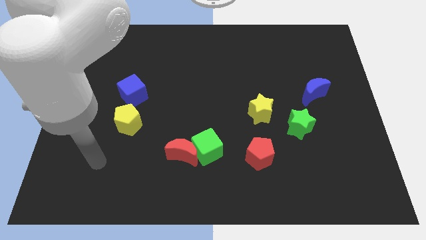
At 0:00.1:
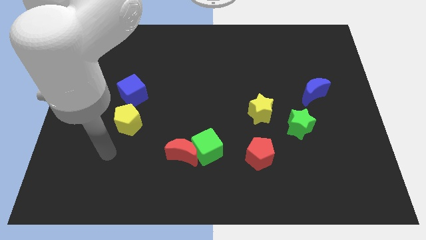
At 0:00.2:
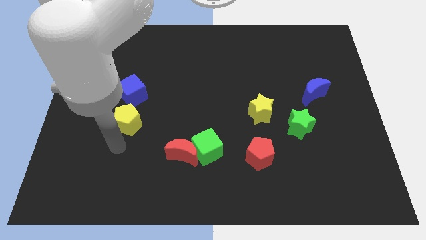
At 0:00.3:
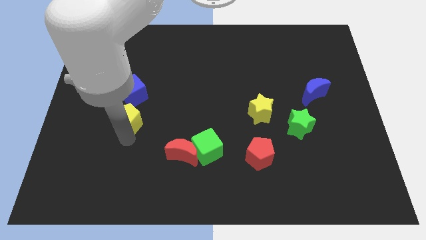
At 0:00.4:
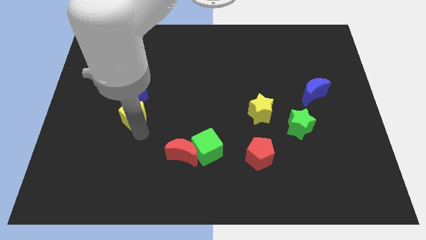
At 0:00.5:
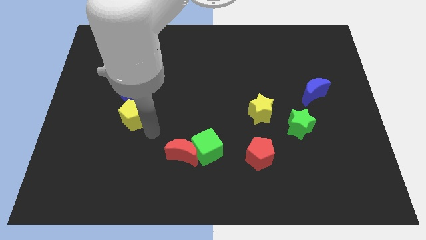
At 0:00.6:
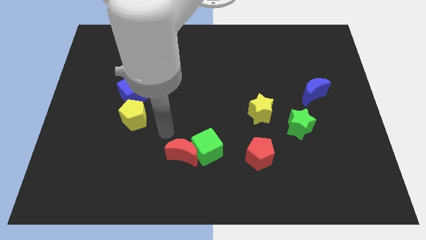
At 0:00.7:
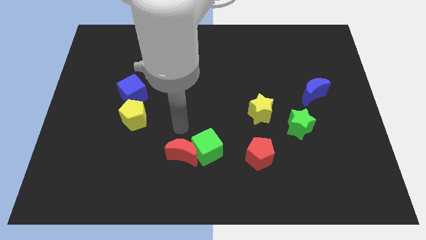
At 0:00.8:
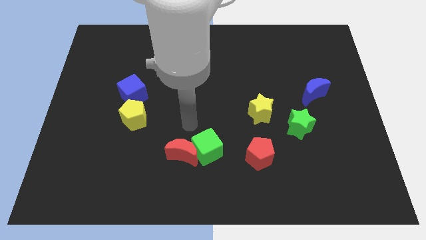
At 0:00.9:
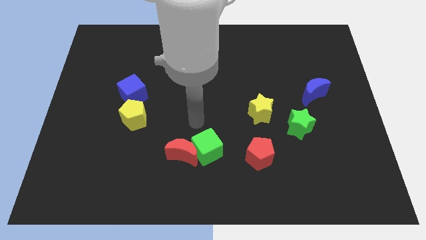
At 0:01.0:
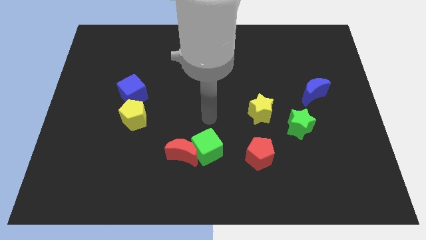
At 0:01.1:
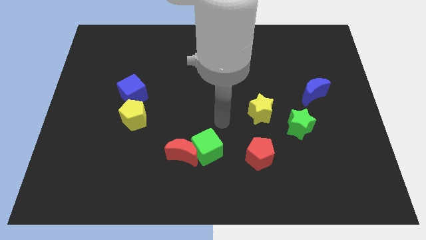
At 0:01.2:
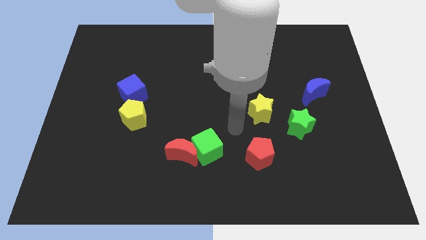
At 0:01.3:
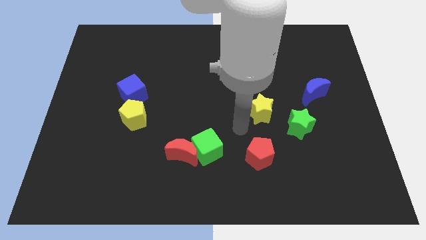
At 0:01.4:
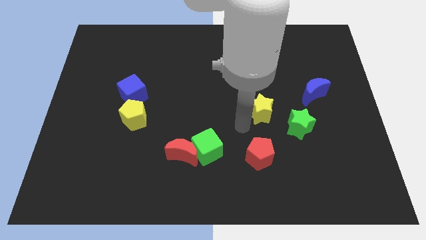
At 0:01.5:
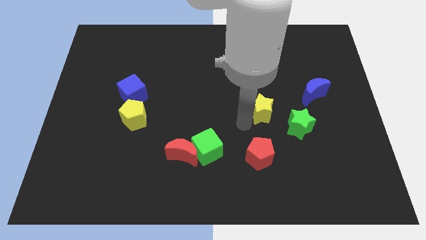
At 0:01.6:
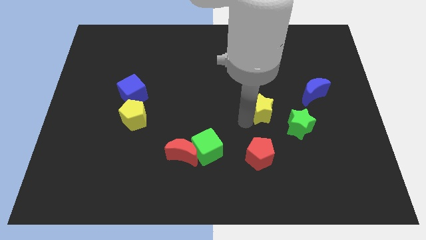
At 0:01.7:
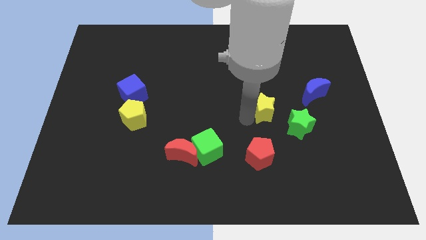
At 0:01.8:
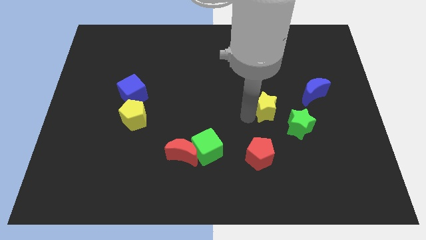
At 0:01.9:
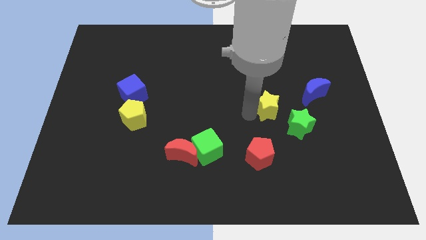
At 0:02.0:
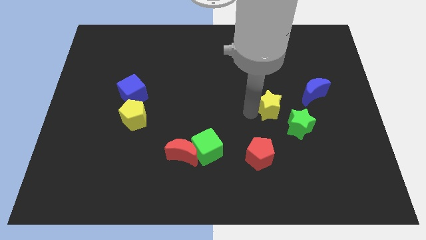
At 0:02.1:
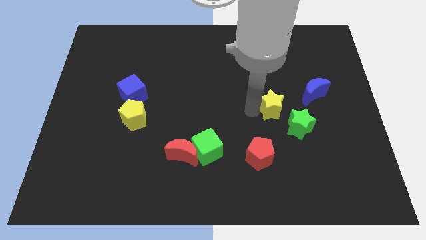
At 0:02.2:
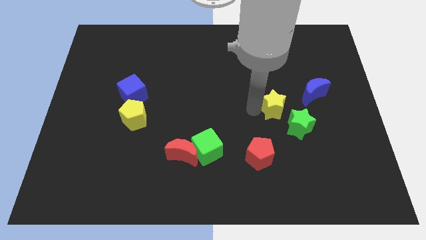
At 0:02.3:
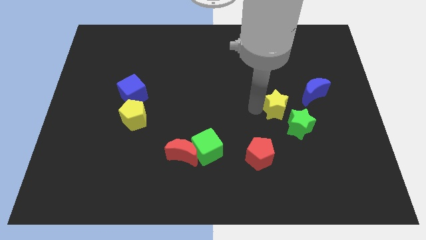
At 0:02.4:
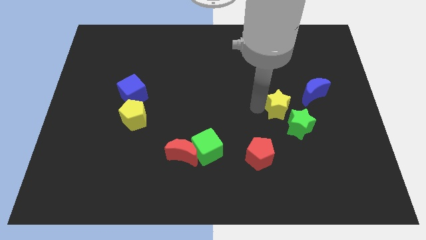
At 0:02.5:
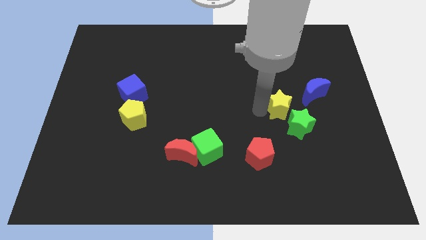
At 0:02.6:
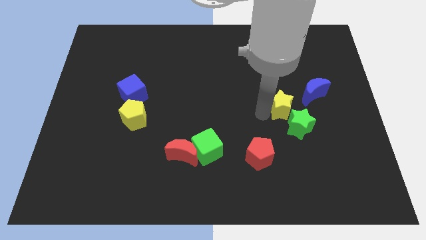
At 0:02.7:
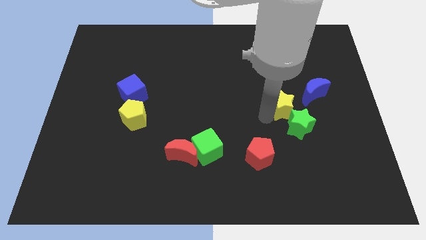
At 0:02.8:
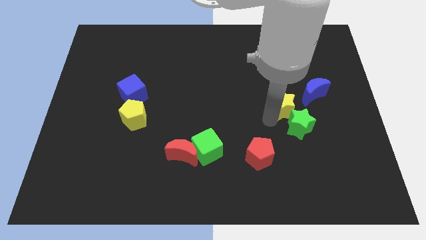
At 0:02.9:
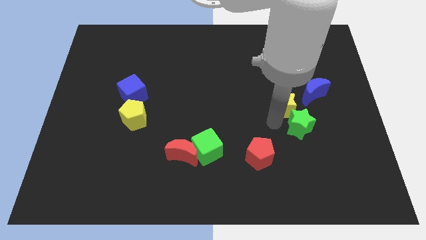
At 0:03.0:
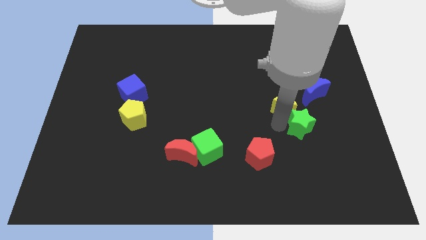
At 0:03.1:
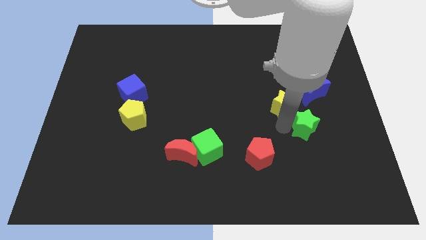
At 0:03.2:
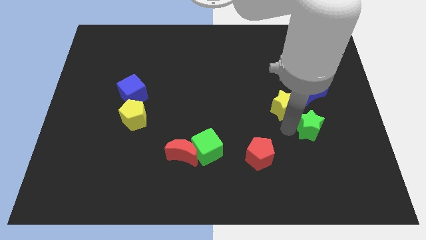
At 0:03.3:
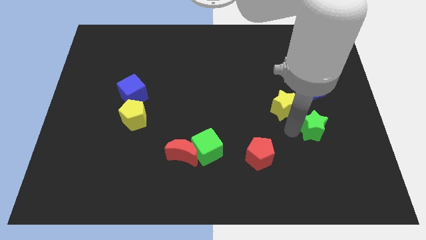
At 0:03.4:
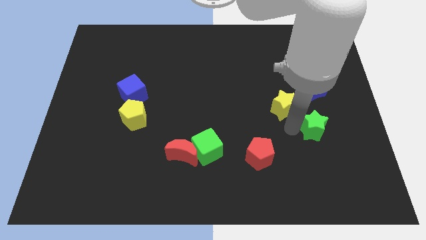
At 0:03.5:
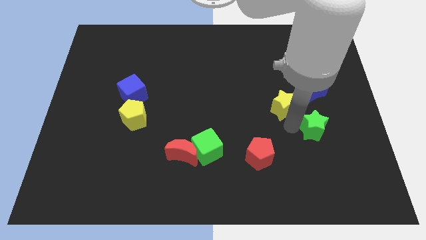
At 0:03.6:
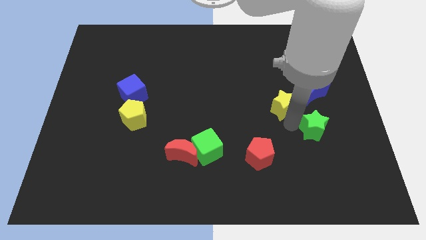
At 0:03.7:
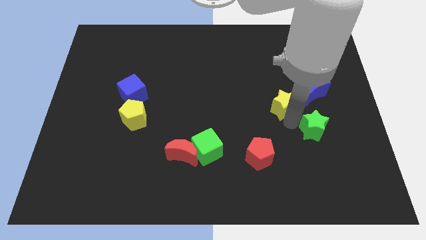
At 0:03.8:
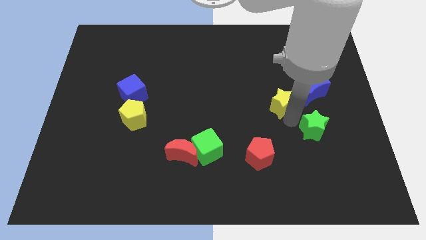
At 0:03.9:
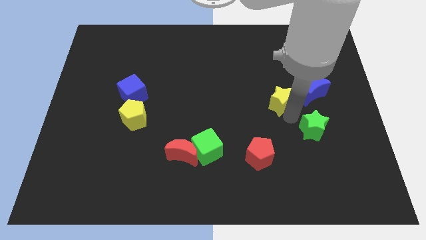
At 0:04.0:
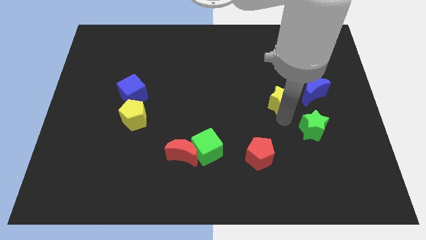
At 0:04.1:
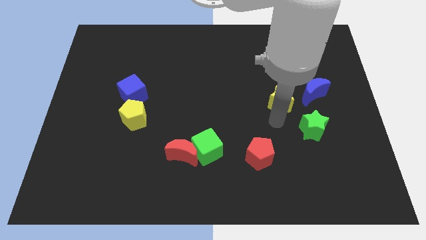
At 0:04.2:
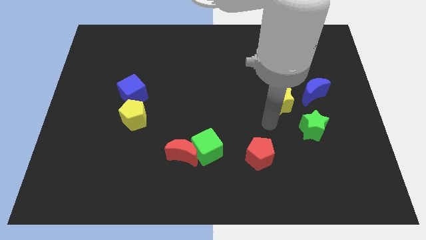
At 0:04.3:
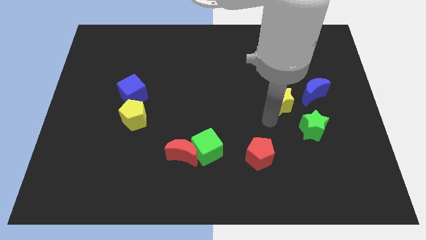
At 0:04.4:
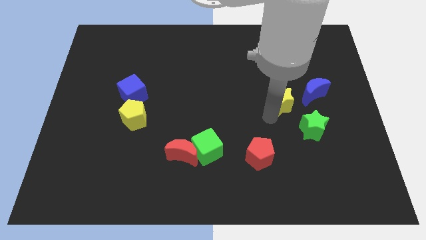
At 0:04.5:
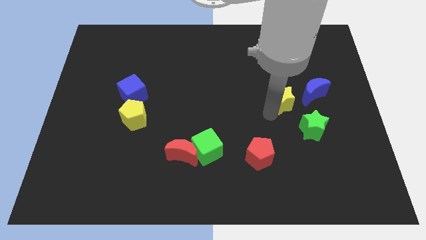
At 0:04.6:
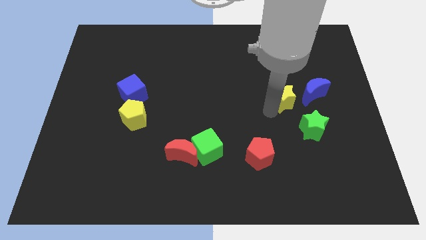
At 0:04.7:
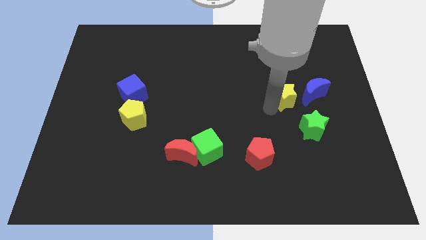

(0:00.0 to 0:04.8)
slightly move the yellow star diagonally up and right

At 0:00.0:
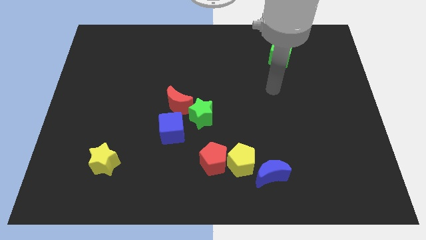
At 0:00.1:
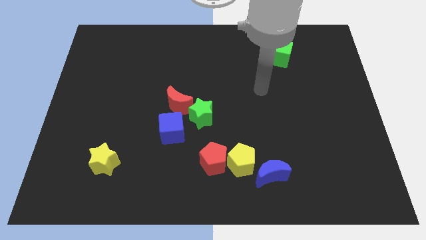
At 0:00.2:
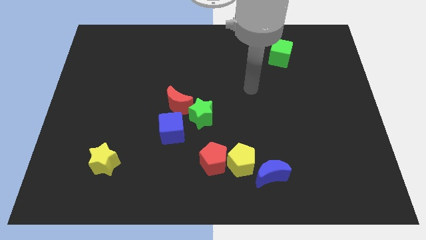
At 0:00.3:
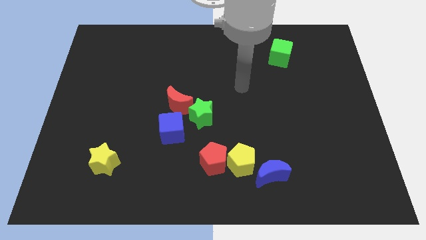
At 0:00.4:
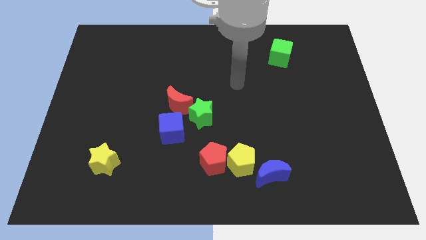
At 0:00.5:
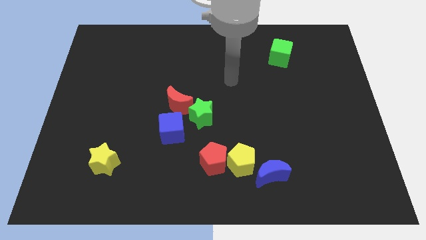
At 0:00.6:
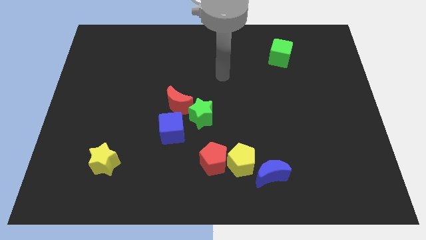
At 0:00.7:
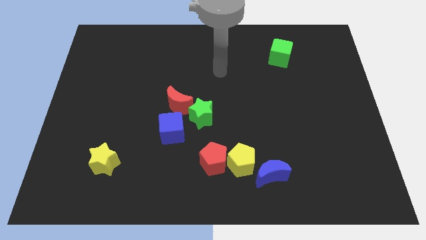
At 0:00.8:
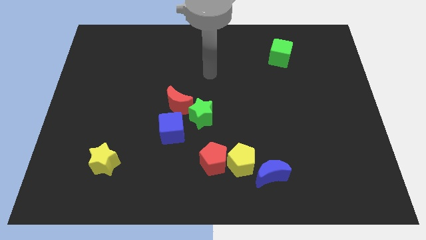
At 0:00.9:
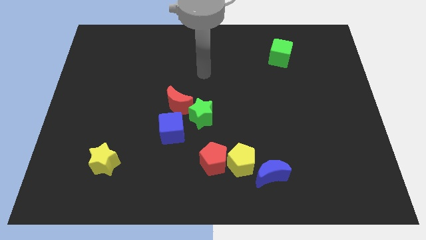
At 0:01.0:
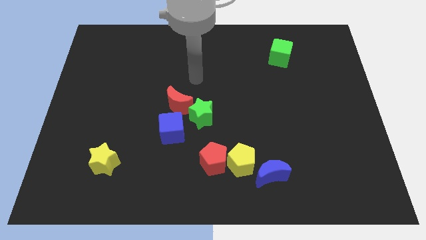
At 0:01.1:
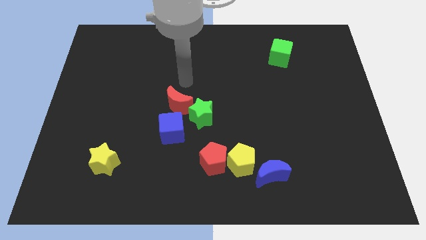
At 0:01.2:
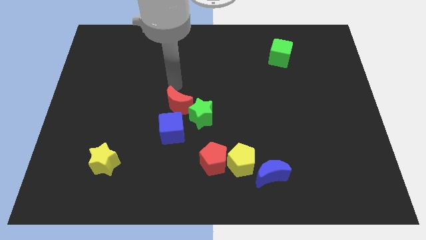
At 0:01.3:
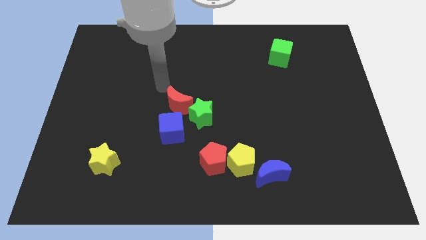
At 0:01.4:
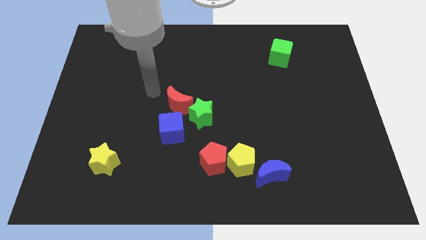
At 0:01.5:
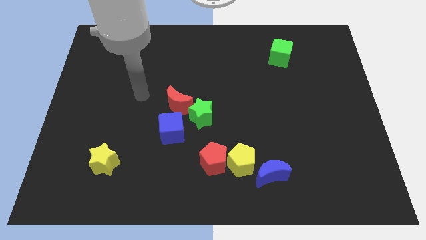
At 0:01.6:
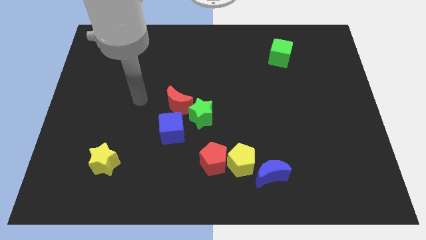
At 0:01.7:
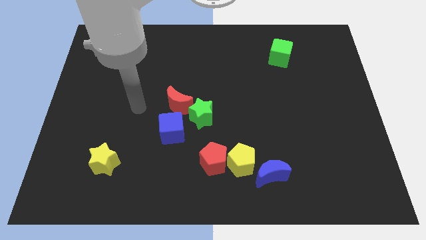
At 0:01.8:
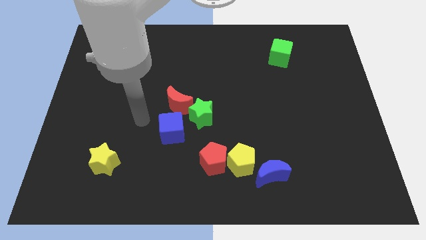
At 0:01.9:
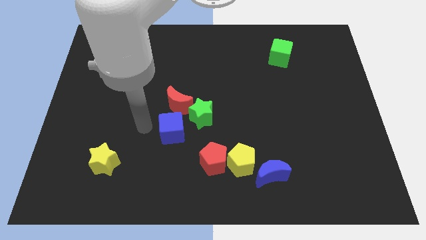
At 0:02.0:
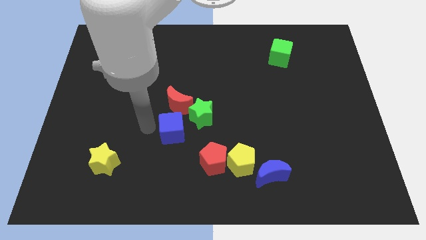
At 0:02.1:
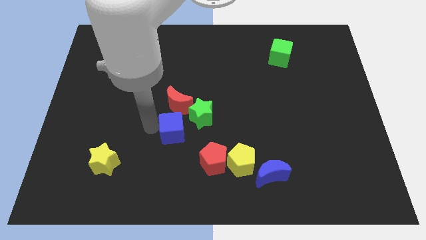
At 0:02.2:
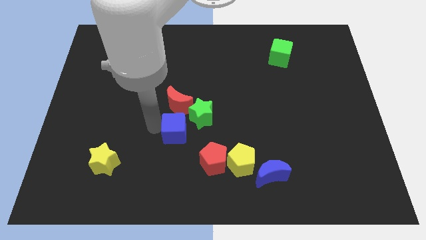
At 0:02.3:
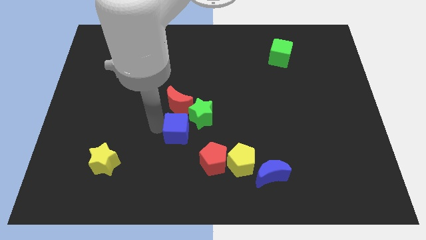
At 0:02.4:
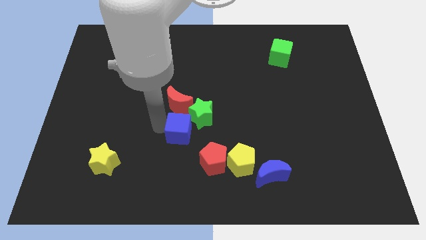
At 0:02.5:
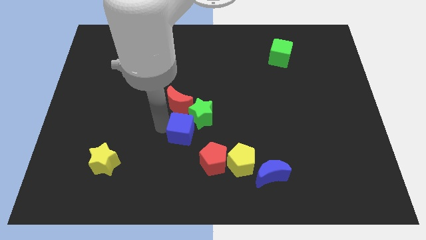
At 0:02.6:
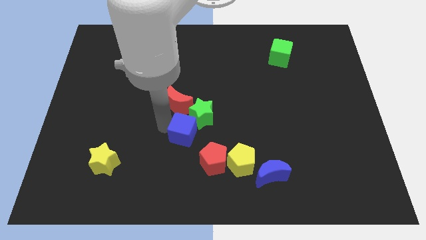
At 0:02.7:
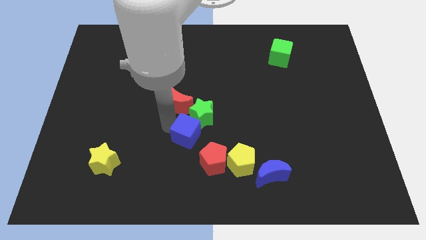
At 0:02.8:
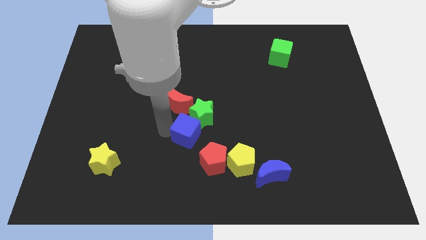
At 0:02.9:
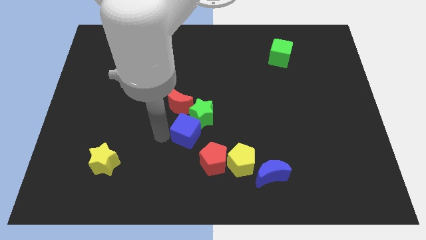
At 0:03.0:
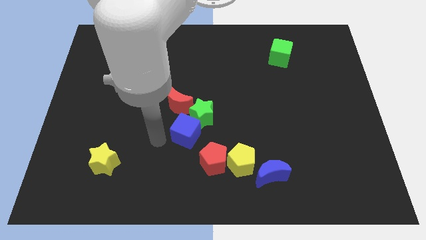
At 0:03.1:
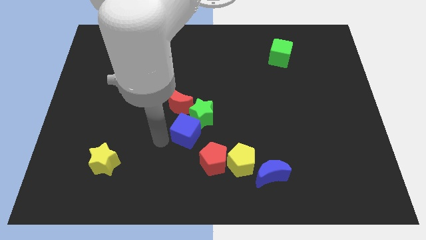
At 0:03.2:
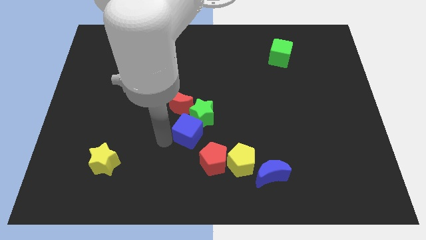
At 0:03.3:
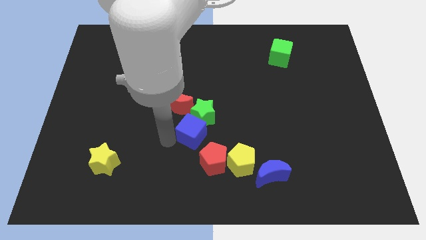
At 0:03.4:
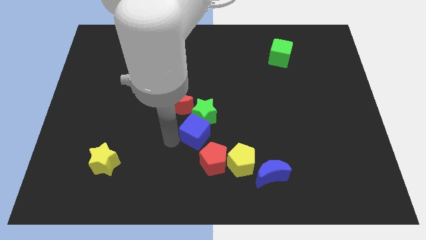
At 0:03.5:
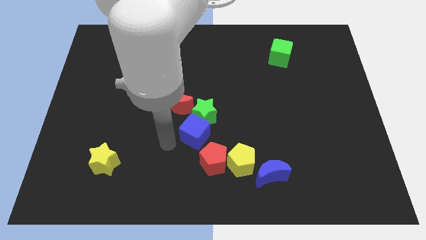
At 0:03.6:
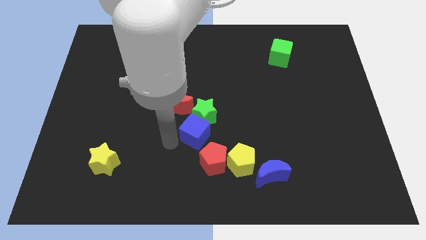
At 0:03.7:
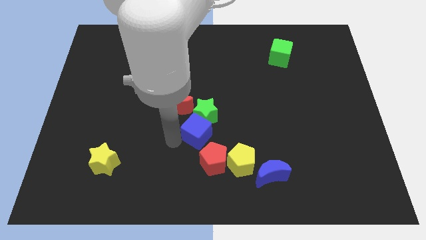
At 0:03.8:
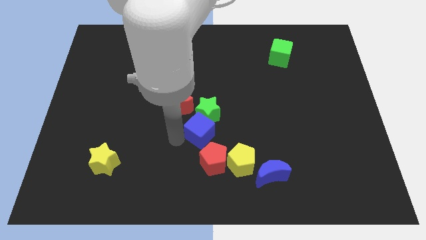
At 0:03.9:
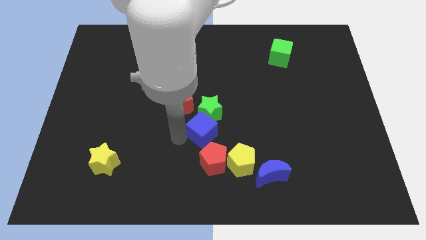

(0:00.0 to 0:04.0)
push the blue cube slightly to the right
